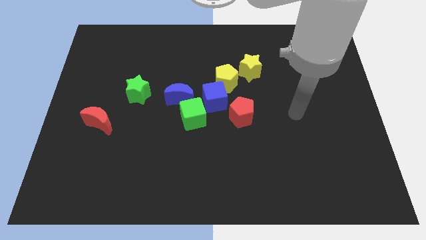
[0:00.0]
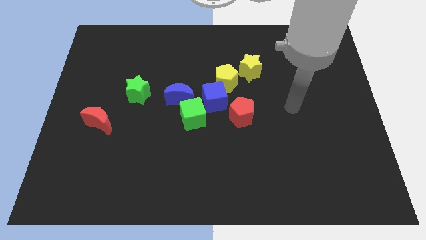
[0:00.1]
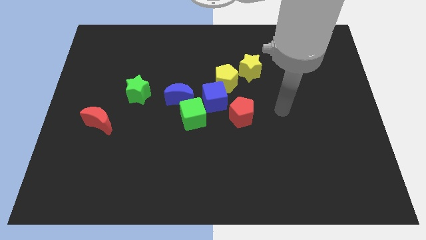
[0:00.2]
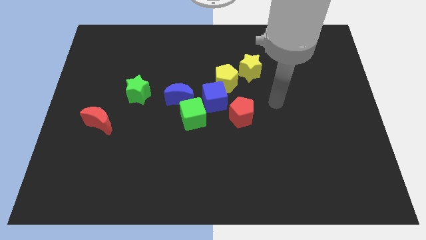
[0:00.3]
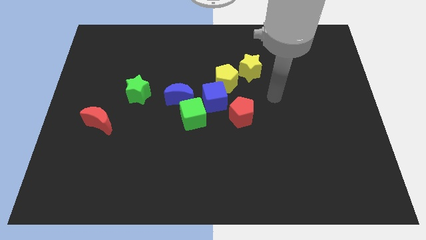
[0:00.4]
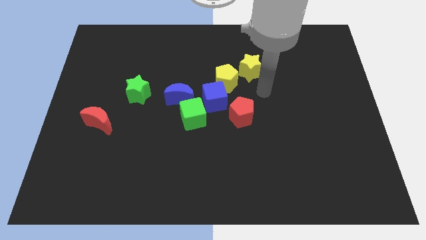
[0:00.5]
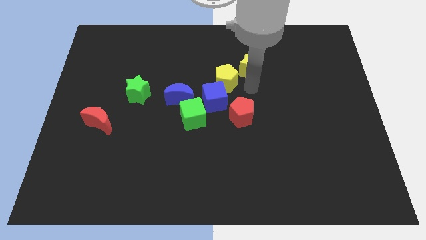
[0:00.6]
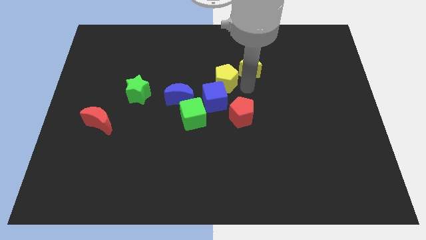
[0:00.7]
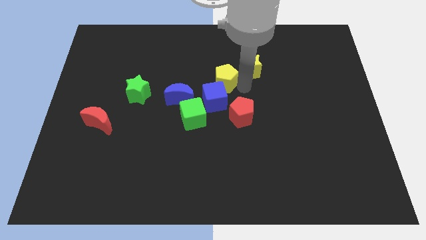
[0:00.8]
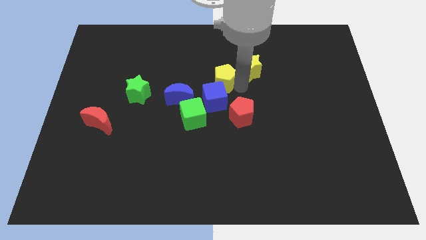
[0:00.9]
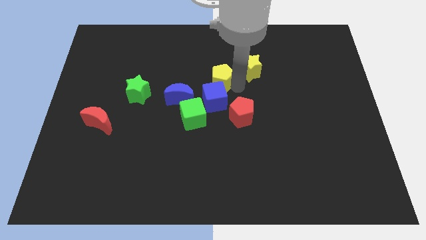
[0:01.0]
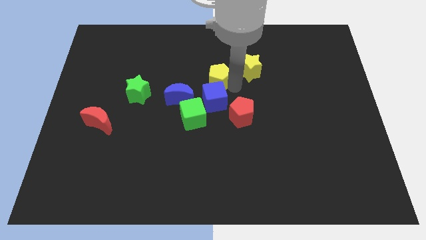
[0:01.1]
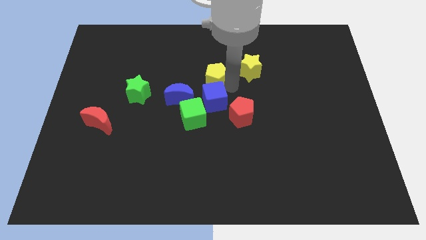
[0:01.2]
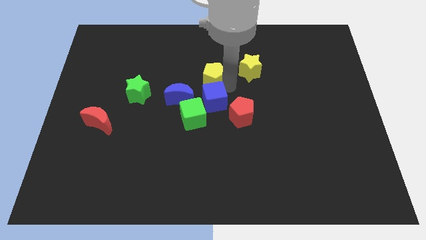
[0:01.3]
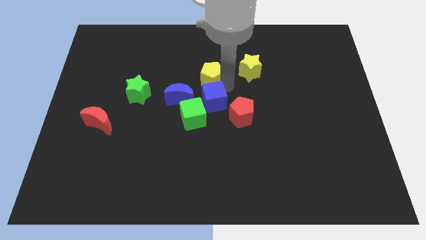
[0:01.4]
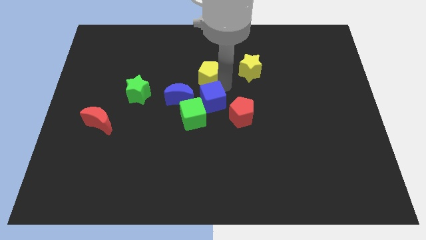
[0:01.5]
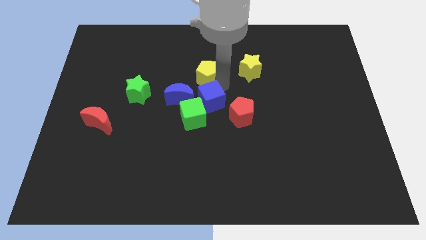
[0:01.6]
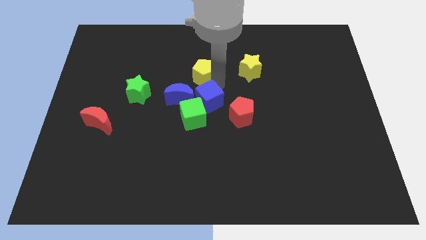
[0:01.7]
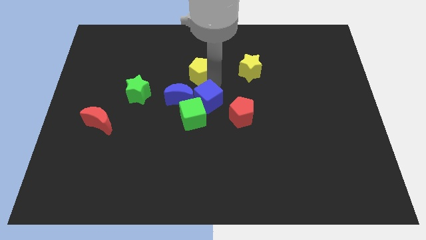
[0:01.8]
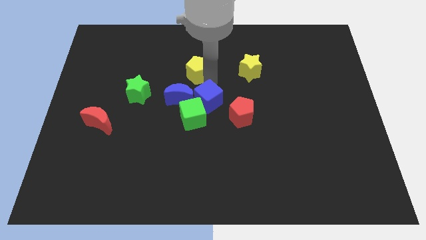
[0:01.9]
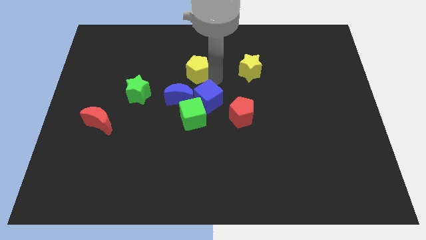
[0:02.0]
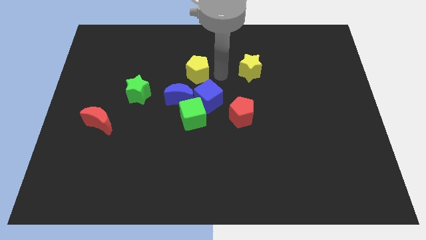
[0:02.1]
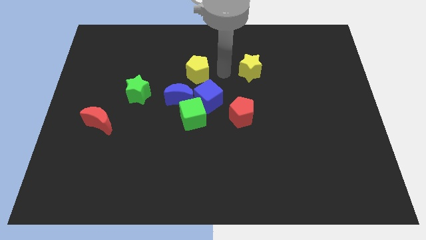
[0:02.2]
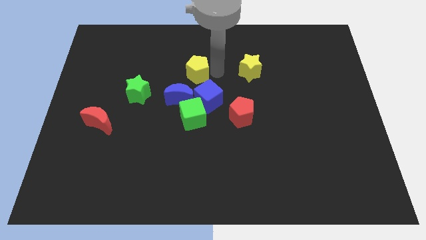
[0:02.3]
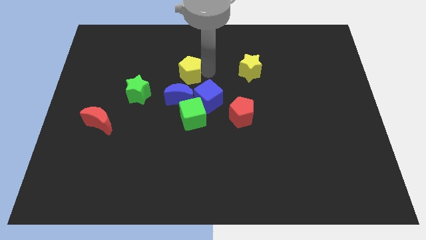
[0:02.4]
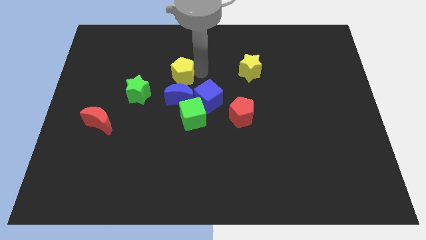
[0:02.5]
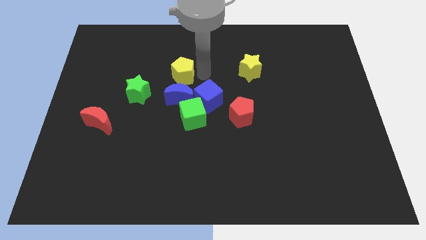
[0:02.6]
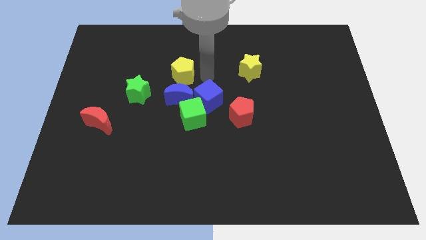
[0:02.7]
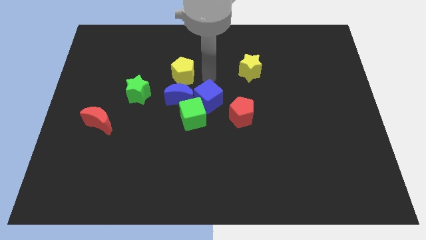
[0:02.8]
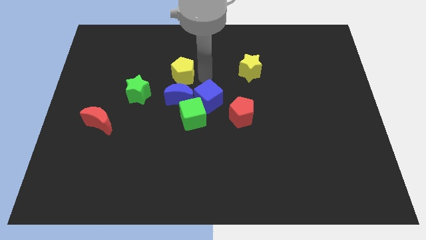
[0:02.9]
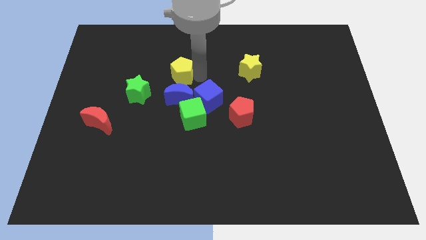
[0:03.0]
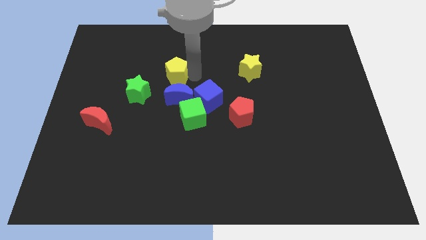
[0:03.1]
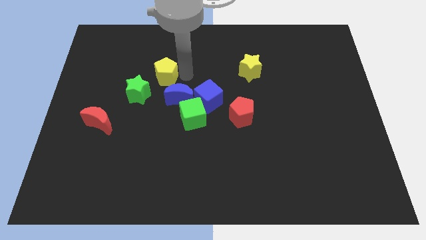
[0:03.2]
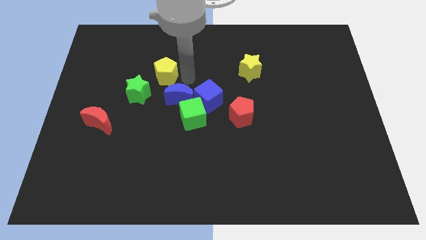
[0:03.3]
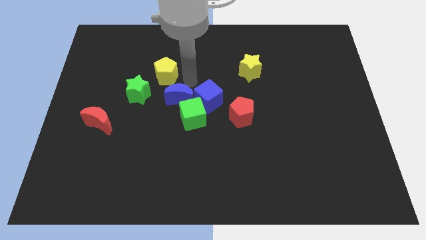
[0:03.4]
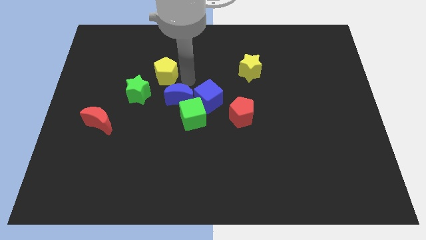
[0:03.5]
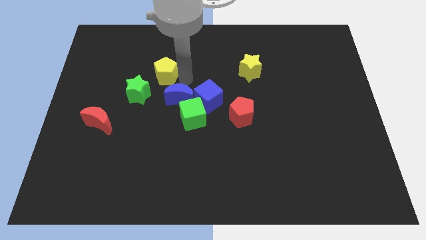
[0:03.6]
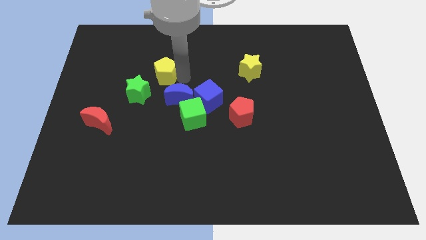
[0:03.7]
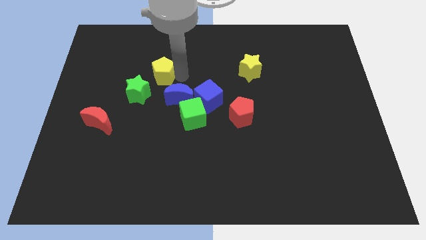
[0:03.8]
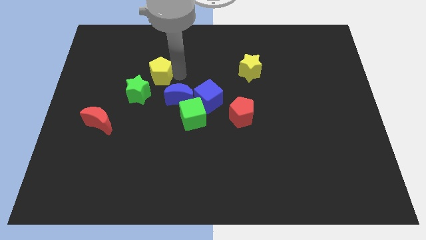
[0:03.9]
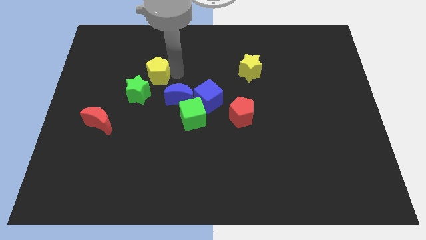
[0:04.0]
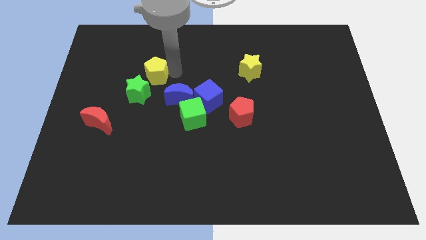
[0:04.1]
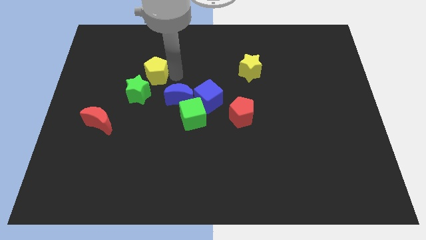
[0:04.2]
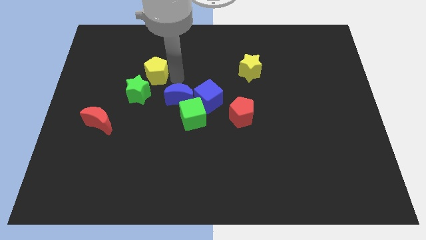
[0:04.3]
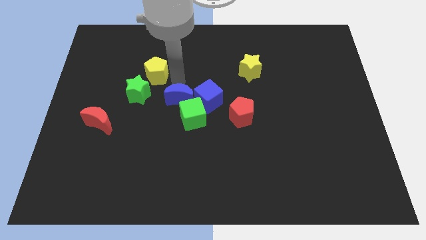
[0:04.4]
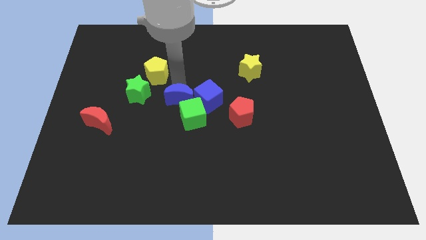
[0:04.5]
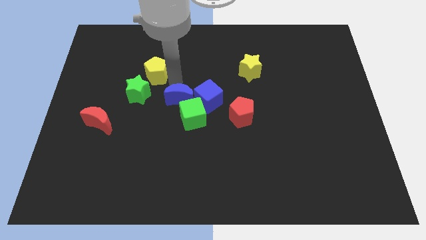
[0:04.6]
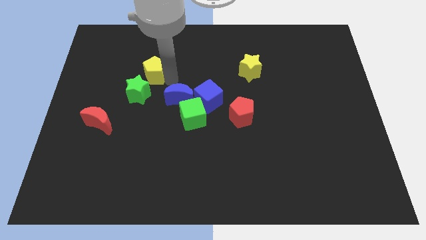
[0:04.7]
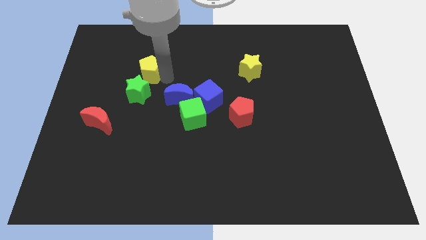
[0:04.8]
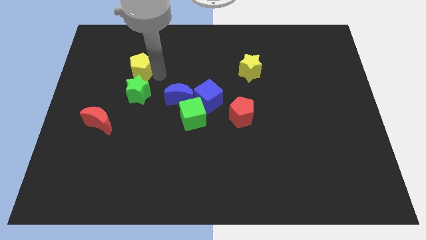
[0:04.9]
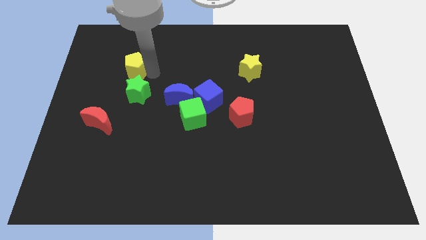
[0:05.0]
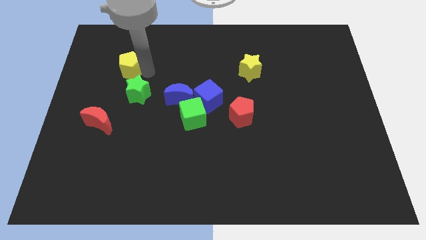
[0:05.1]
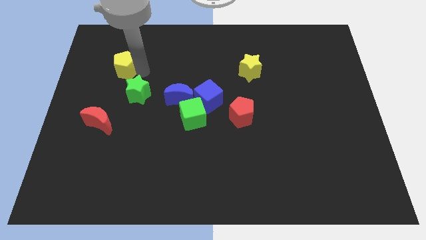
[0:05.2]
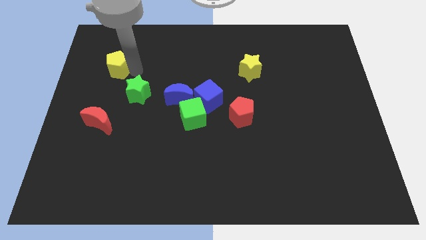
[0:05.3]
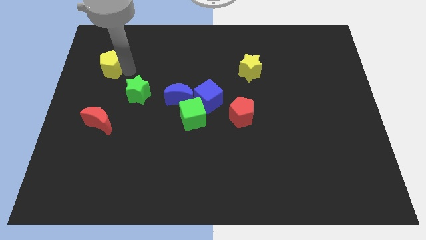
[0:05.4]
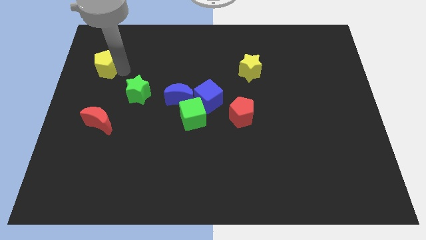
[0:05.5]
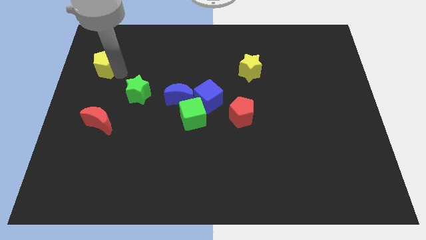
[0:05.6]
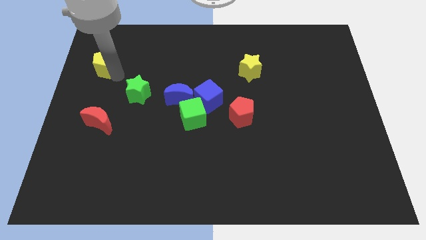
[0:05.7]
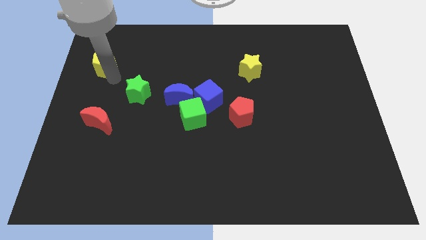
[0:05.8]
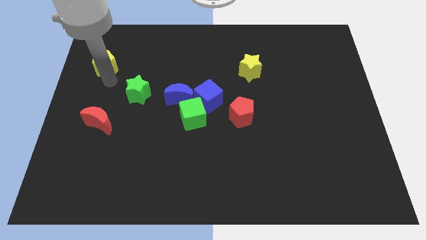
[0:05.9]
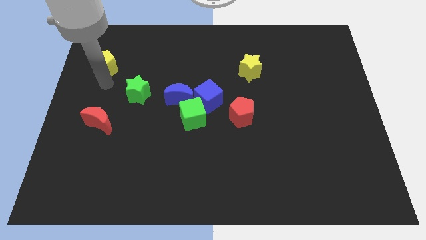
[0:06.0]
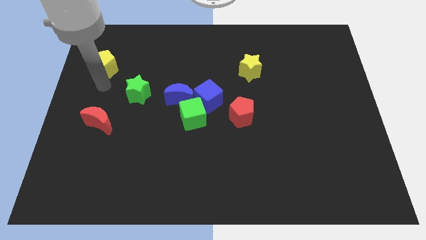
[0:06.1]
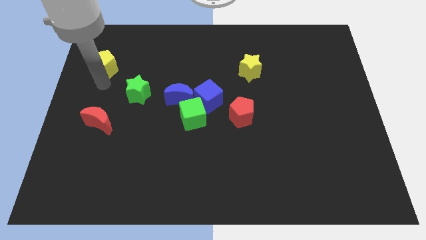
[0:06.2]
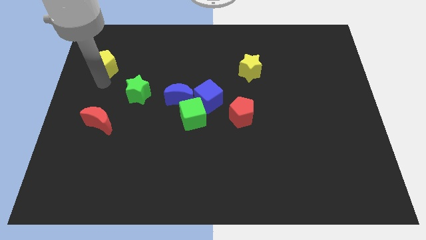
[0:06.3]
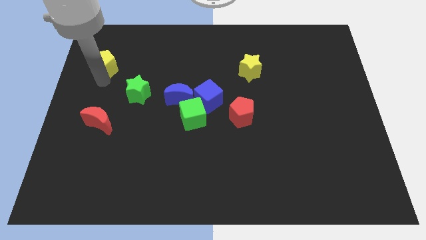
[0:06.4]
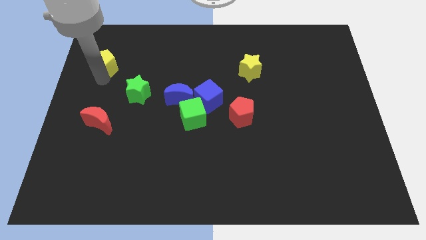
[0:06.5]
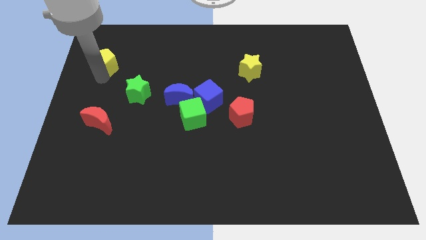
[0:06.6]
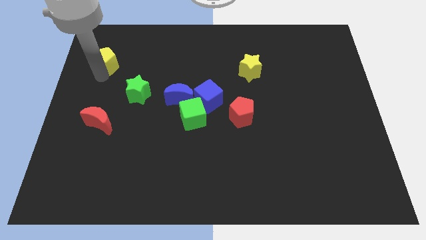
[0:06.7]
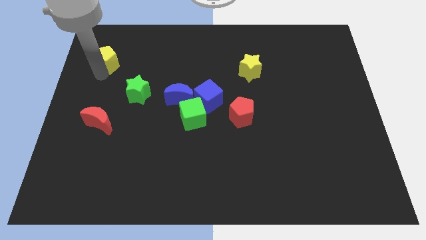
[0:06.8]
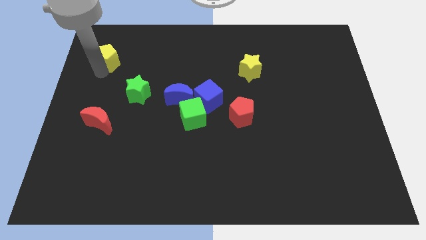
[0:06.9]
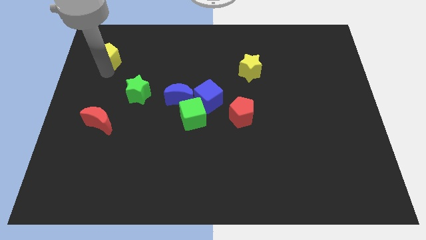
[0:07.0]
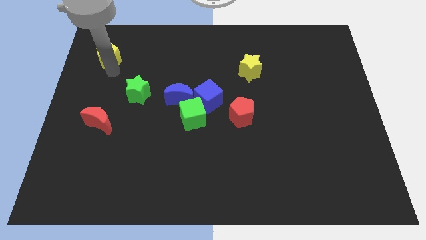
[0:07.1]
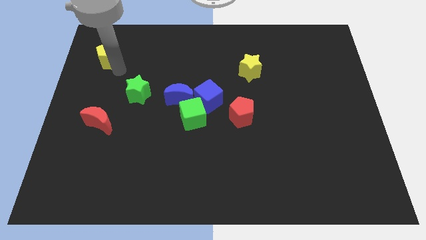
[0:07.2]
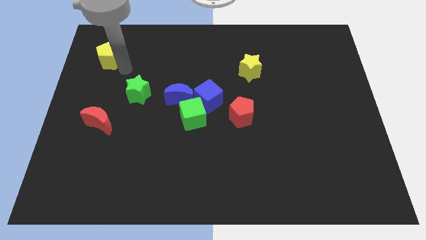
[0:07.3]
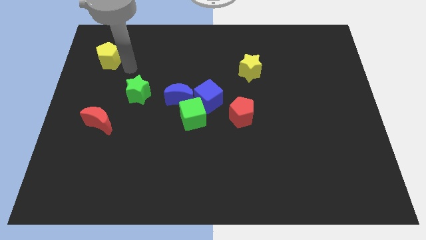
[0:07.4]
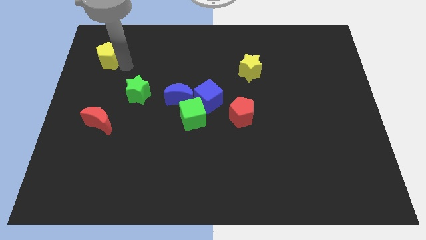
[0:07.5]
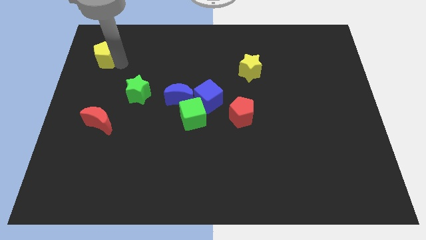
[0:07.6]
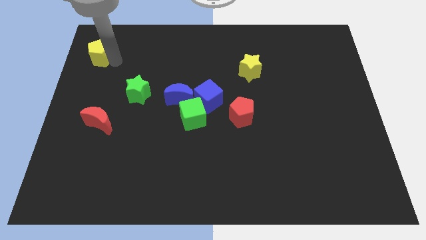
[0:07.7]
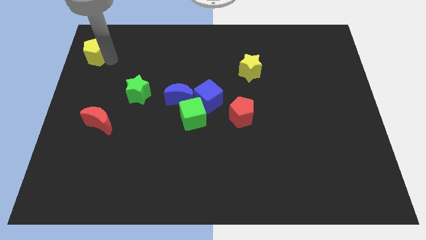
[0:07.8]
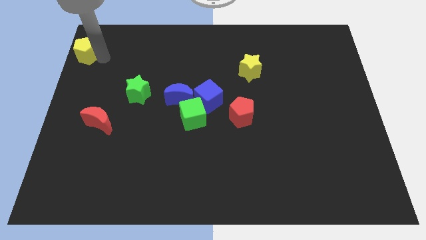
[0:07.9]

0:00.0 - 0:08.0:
move the yellow pentagon to the top left of the board
